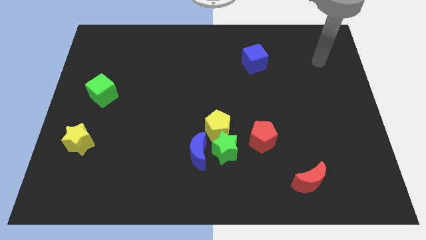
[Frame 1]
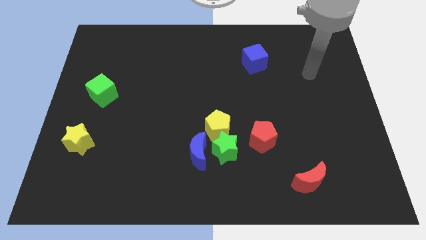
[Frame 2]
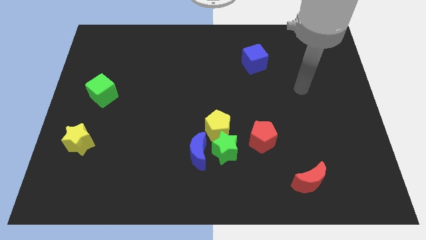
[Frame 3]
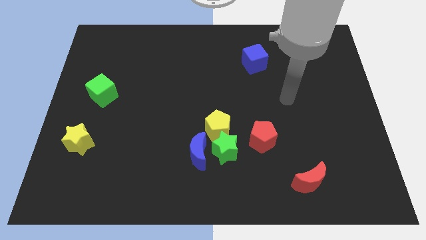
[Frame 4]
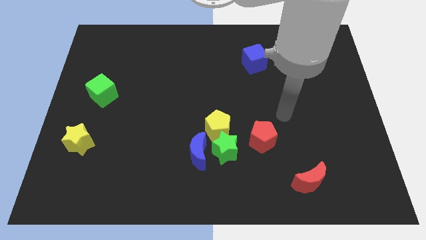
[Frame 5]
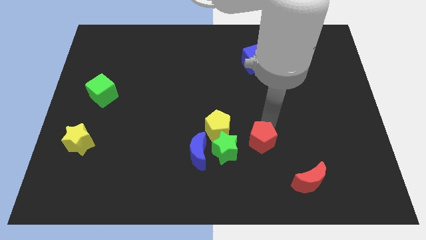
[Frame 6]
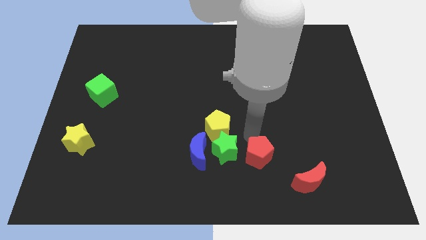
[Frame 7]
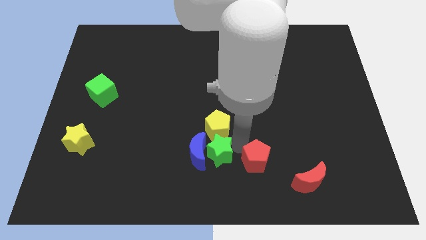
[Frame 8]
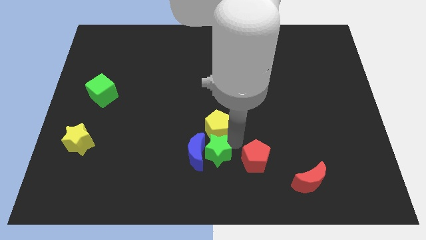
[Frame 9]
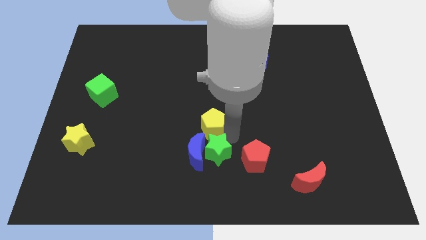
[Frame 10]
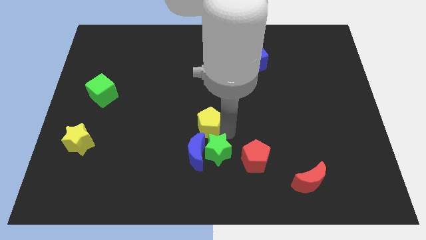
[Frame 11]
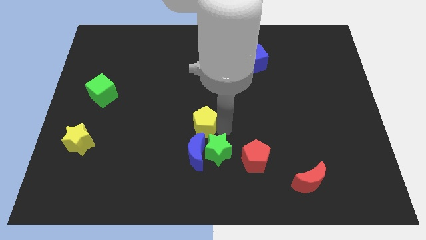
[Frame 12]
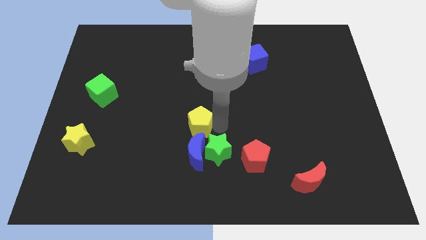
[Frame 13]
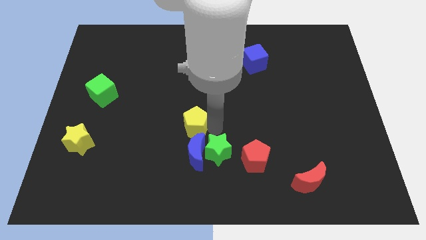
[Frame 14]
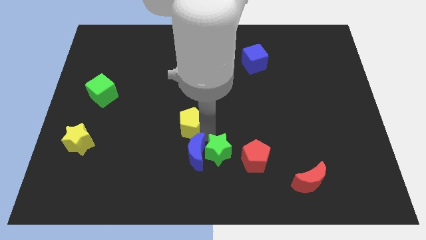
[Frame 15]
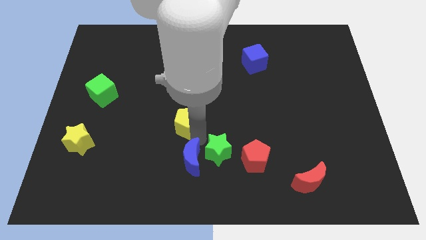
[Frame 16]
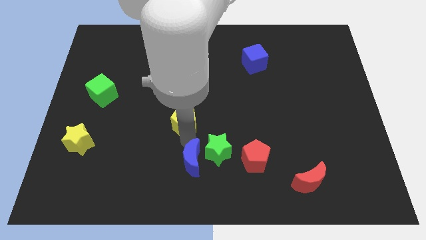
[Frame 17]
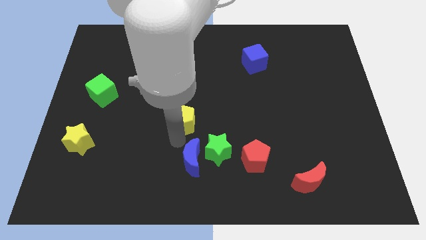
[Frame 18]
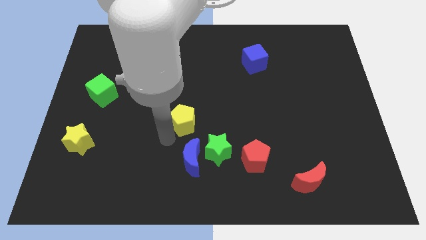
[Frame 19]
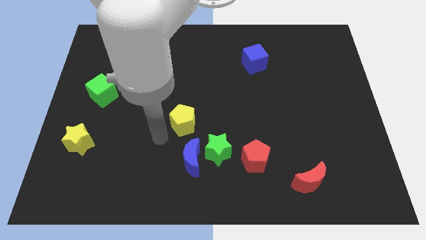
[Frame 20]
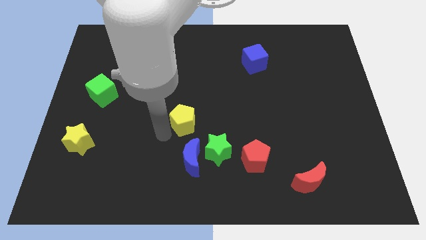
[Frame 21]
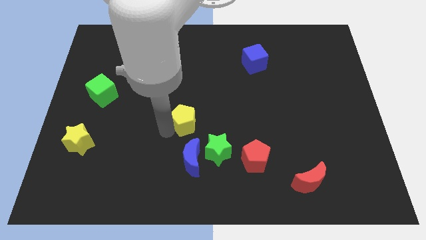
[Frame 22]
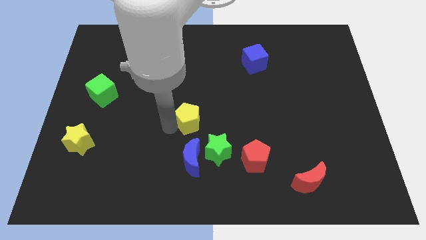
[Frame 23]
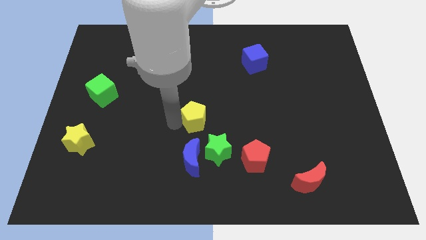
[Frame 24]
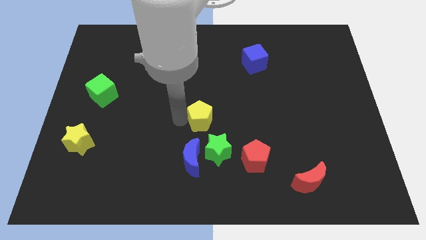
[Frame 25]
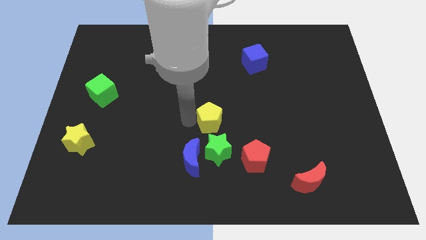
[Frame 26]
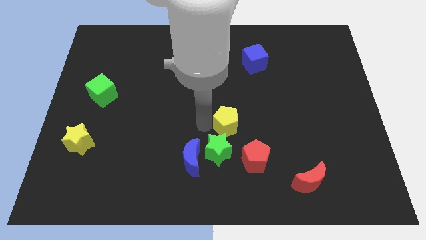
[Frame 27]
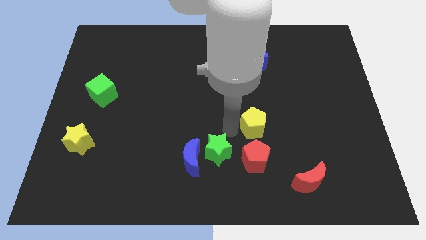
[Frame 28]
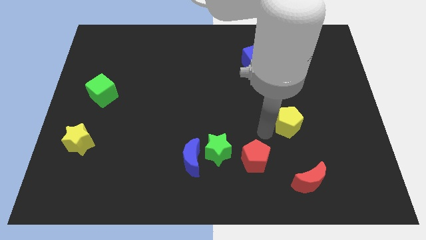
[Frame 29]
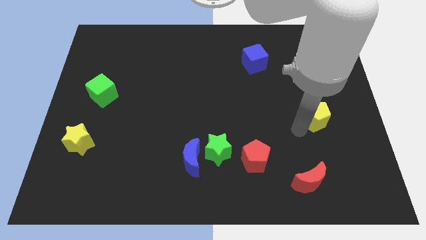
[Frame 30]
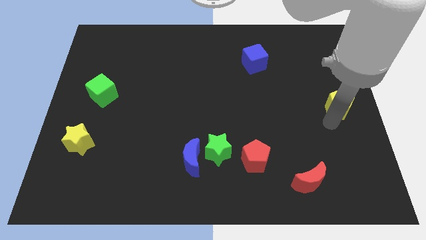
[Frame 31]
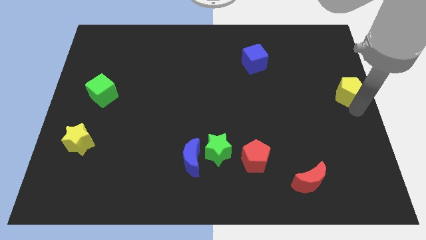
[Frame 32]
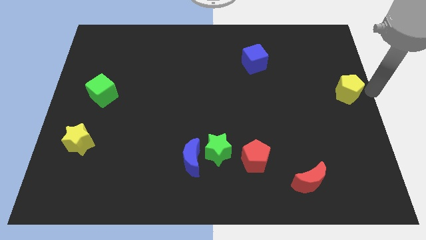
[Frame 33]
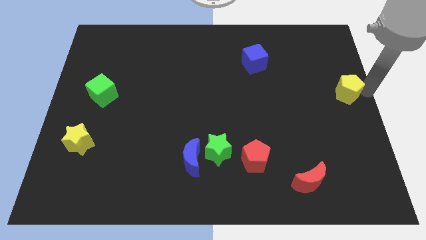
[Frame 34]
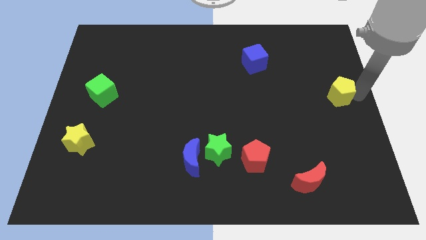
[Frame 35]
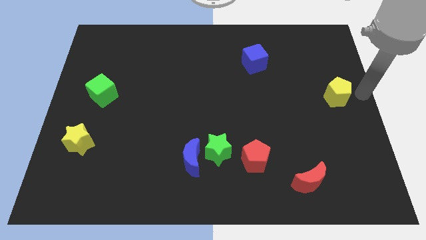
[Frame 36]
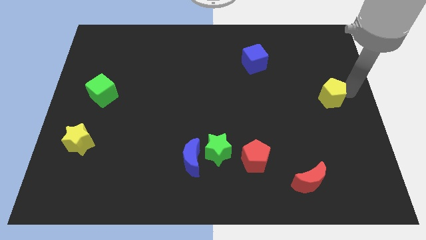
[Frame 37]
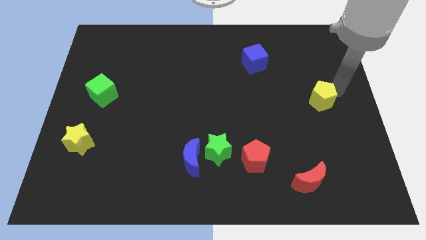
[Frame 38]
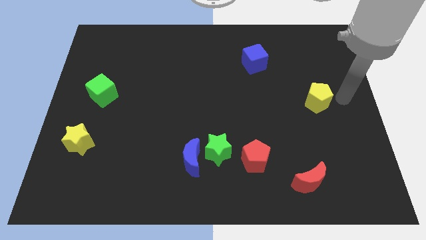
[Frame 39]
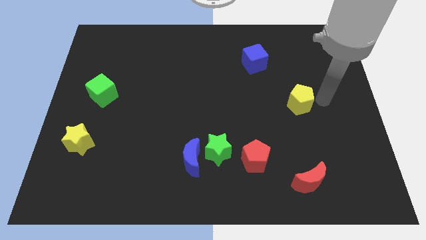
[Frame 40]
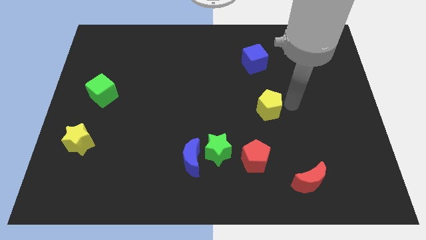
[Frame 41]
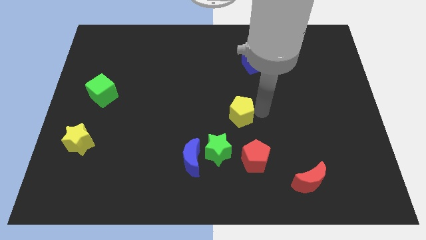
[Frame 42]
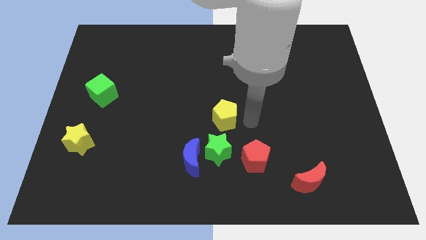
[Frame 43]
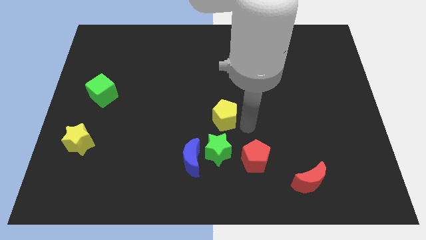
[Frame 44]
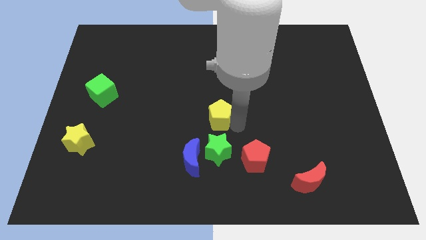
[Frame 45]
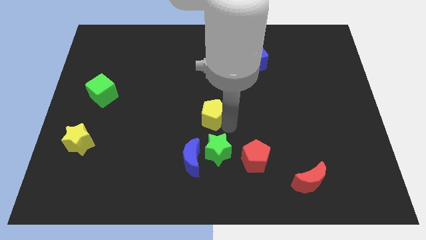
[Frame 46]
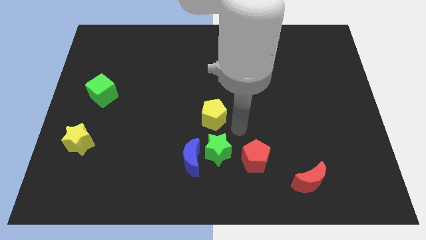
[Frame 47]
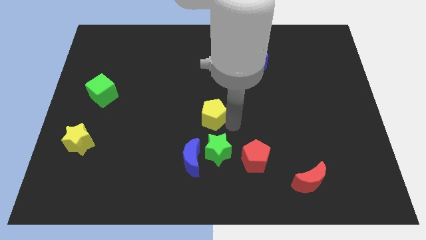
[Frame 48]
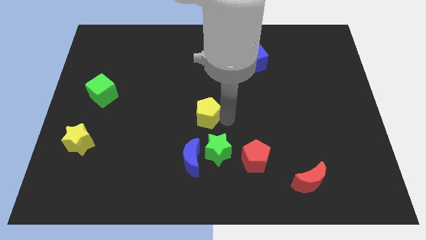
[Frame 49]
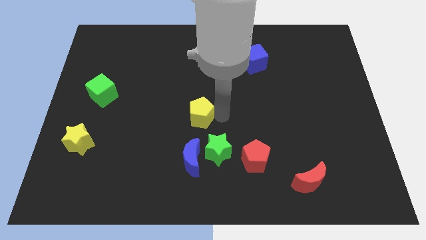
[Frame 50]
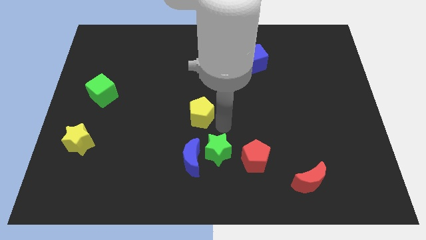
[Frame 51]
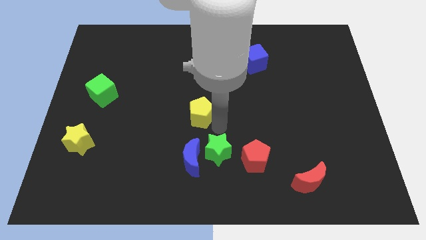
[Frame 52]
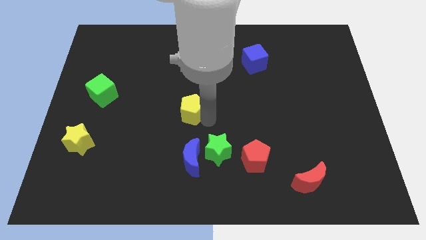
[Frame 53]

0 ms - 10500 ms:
slightly move the yellow pentagon up and then to the left

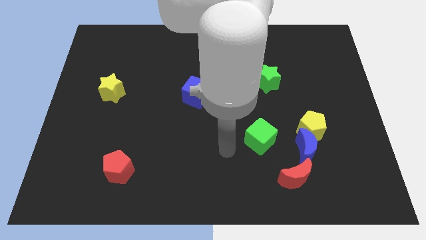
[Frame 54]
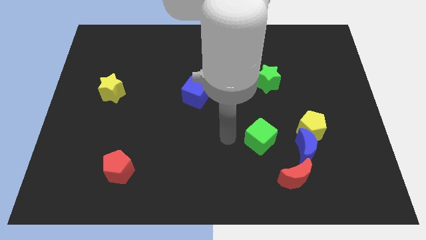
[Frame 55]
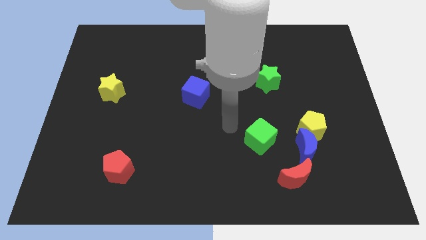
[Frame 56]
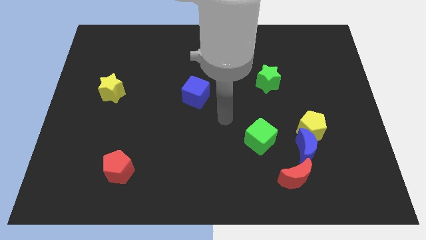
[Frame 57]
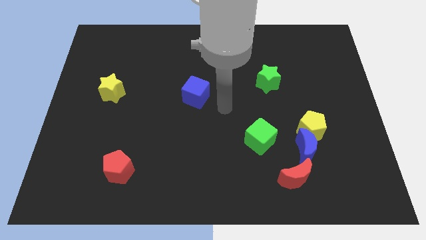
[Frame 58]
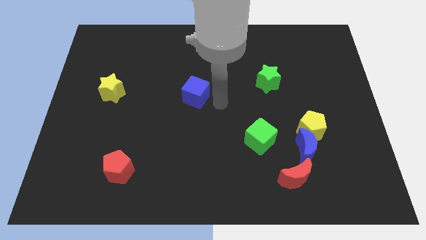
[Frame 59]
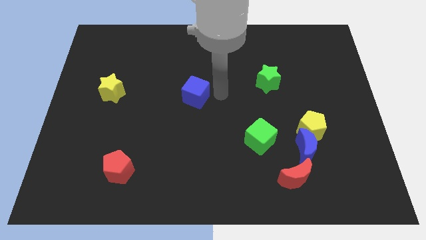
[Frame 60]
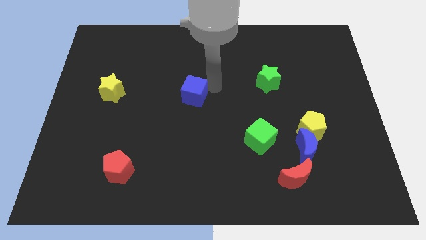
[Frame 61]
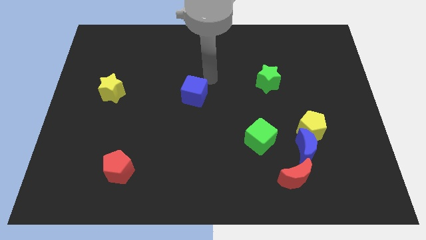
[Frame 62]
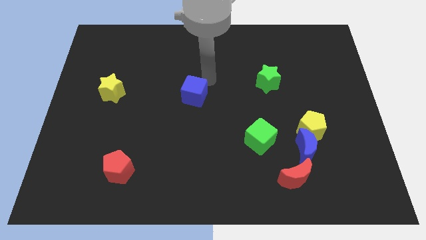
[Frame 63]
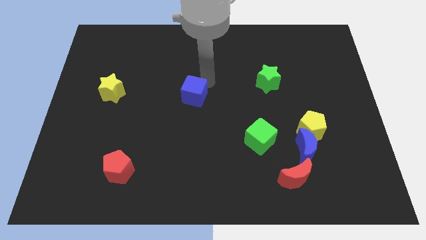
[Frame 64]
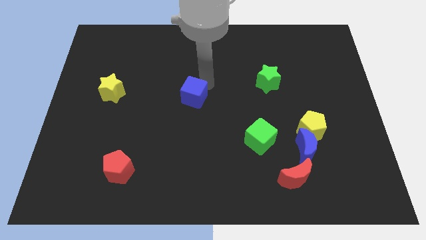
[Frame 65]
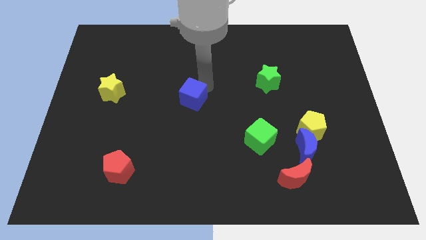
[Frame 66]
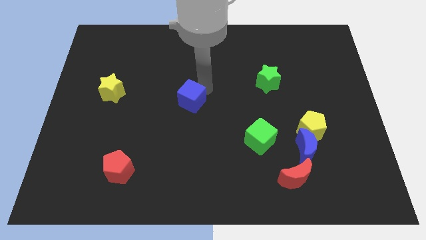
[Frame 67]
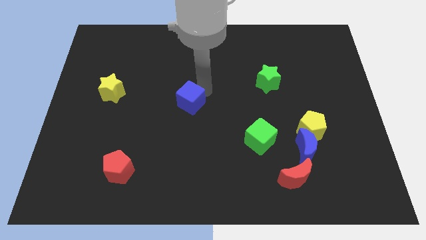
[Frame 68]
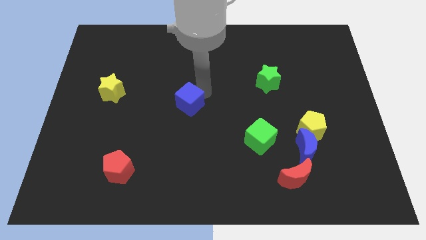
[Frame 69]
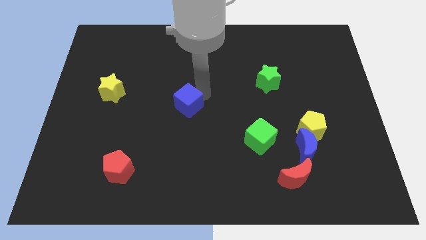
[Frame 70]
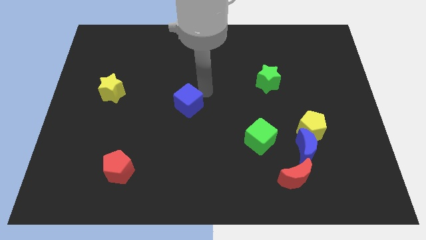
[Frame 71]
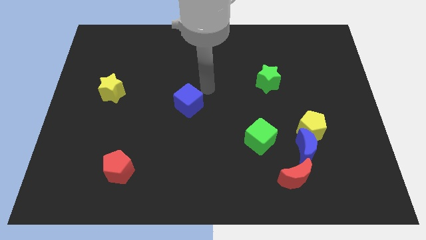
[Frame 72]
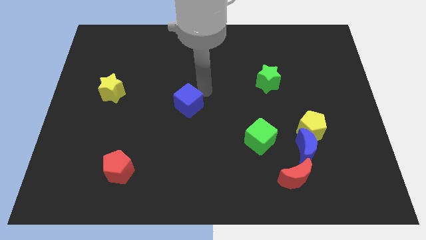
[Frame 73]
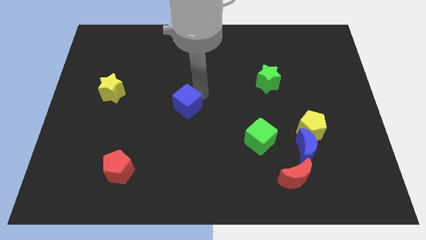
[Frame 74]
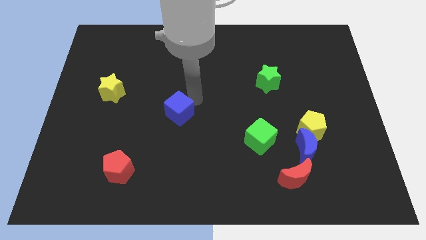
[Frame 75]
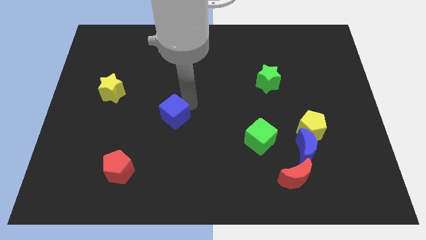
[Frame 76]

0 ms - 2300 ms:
slide the blue cube downwards and left slightly
